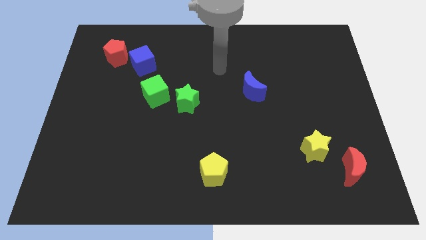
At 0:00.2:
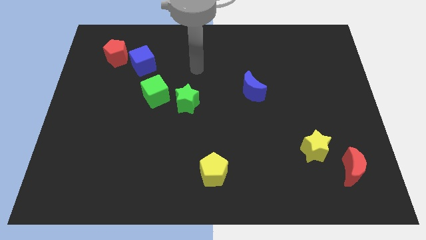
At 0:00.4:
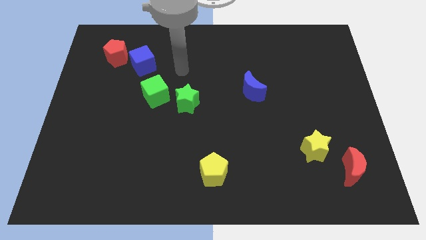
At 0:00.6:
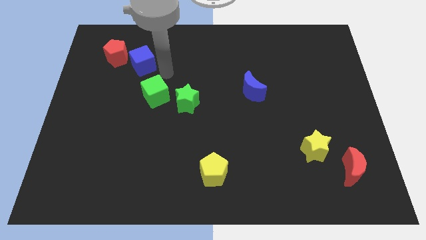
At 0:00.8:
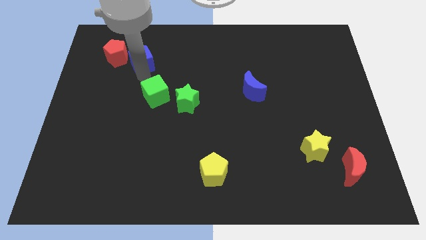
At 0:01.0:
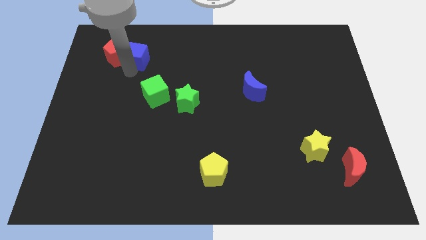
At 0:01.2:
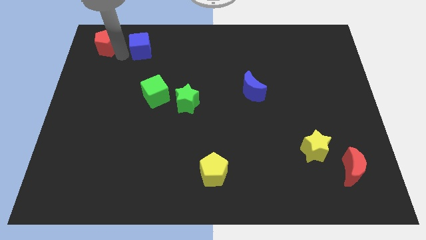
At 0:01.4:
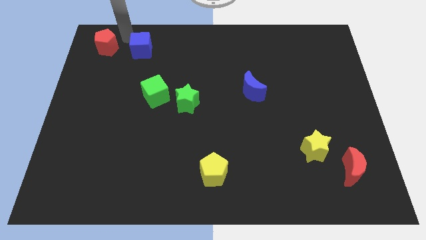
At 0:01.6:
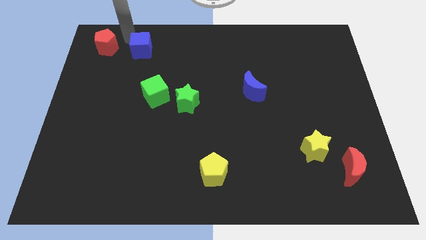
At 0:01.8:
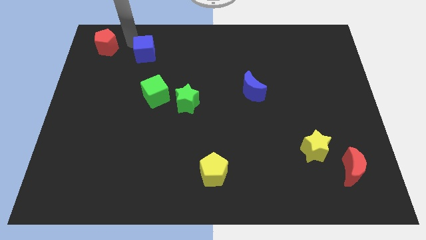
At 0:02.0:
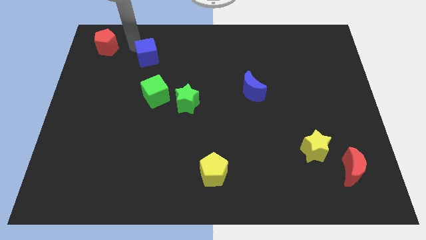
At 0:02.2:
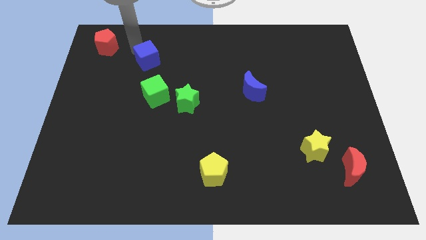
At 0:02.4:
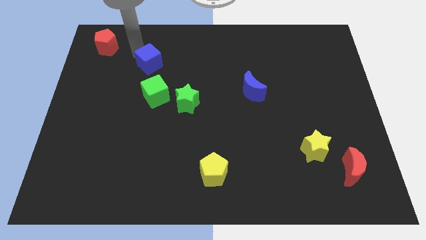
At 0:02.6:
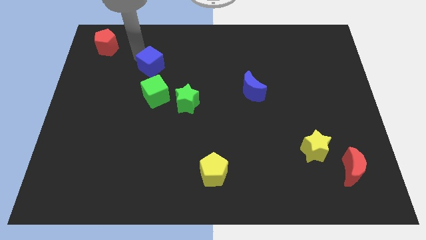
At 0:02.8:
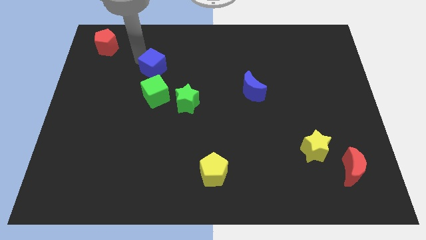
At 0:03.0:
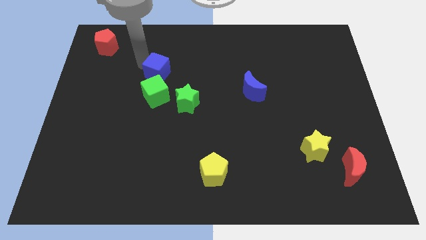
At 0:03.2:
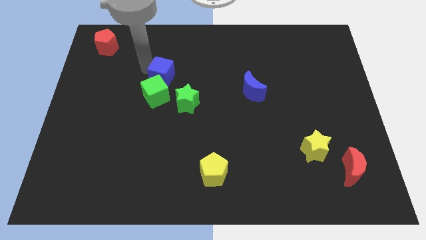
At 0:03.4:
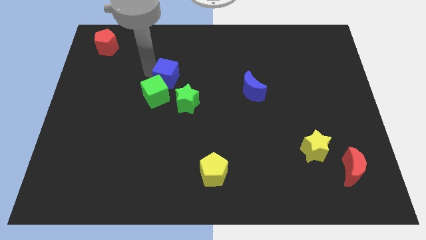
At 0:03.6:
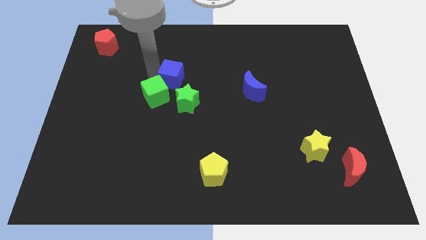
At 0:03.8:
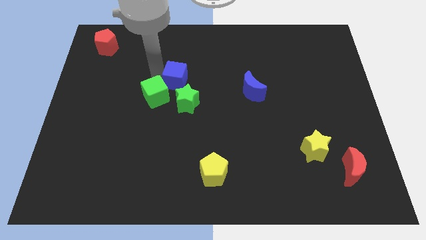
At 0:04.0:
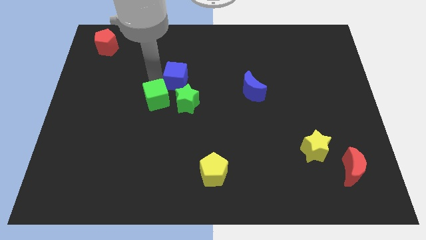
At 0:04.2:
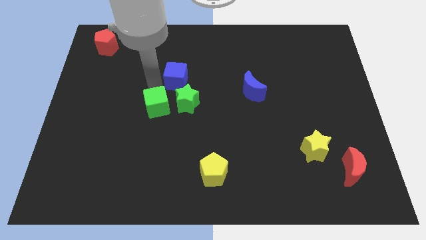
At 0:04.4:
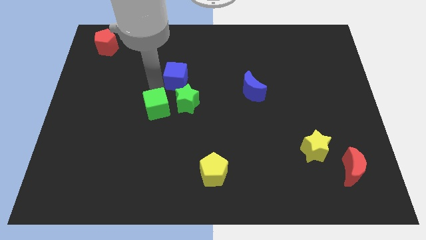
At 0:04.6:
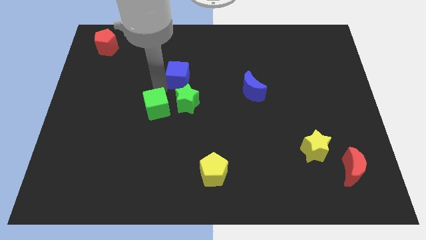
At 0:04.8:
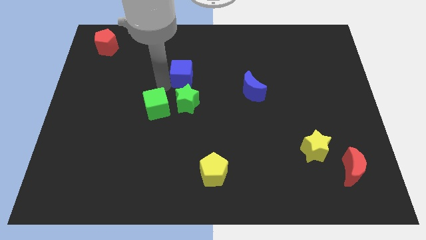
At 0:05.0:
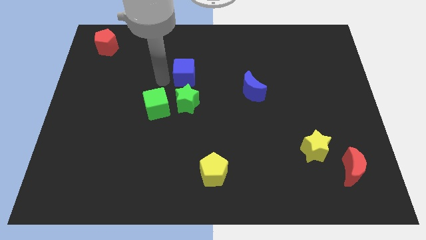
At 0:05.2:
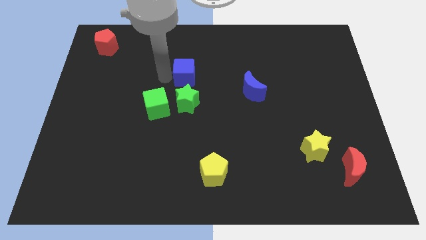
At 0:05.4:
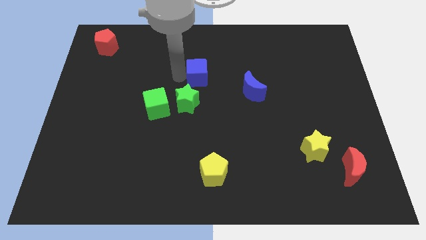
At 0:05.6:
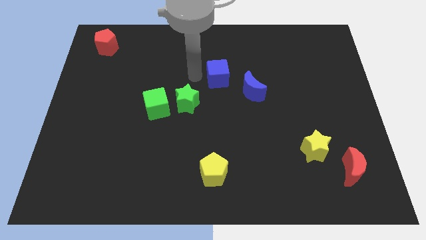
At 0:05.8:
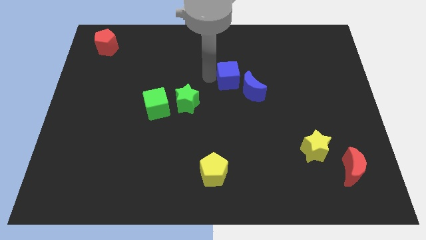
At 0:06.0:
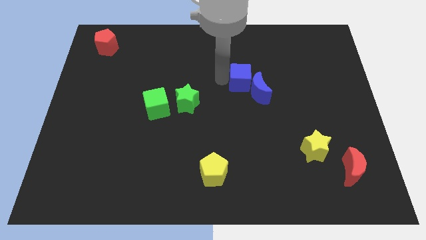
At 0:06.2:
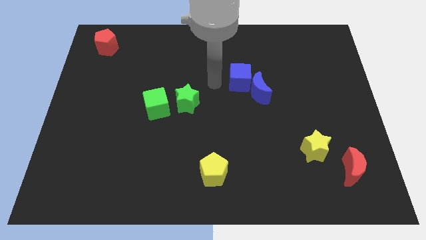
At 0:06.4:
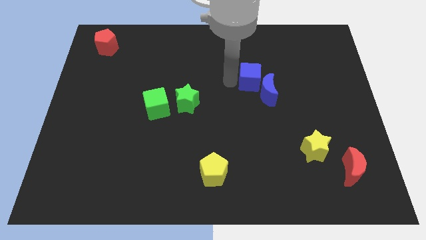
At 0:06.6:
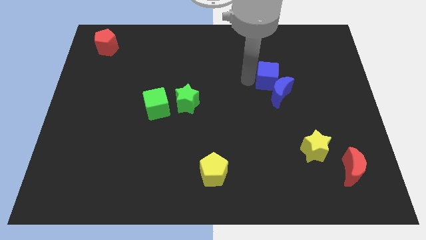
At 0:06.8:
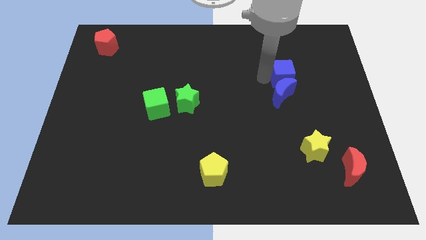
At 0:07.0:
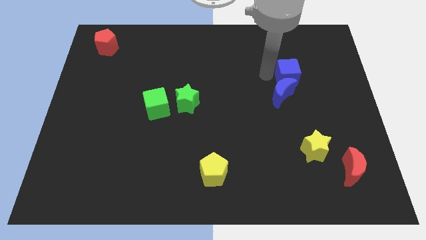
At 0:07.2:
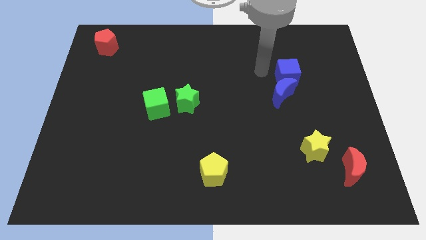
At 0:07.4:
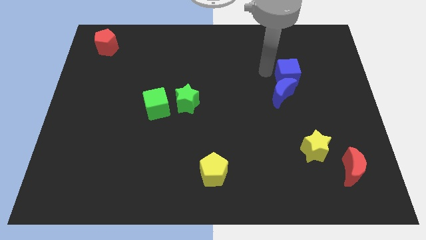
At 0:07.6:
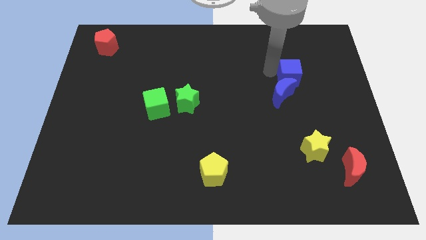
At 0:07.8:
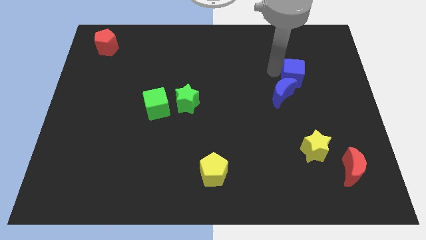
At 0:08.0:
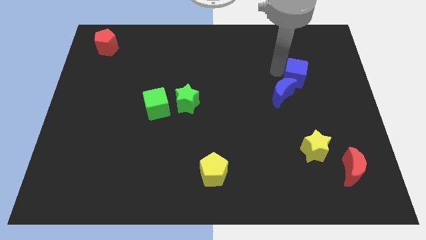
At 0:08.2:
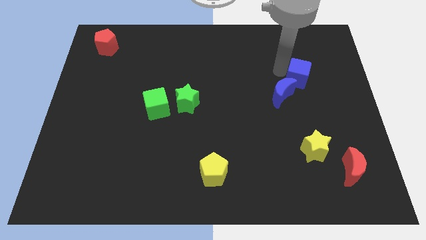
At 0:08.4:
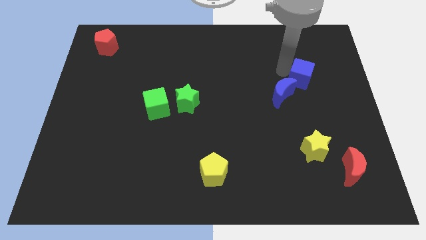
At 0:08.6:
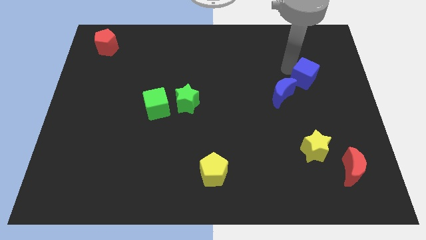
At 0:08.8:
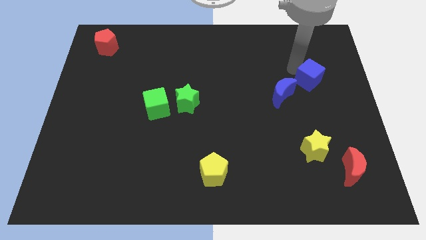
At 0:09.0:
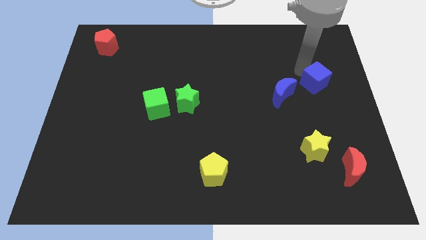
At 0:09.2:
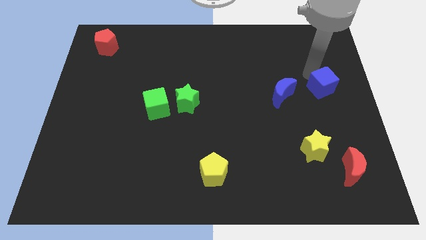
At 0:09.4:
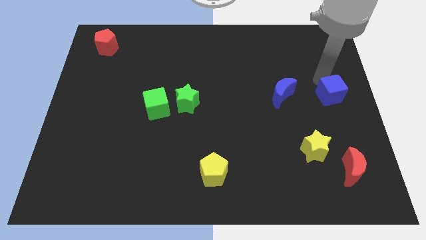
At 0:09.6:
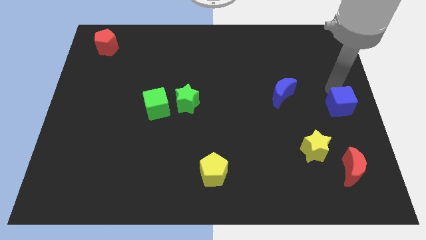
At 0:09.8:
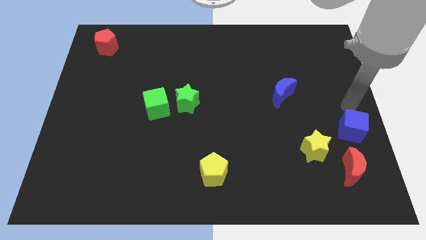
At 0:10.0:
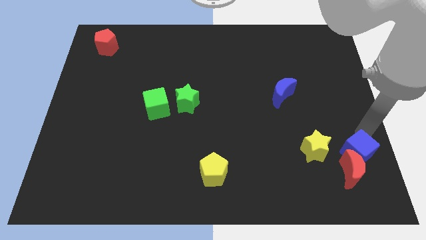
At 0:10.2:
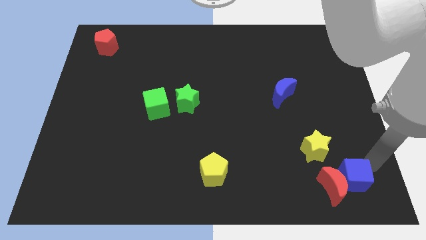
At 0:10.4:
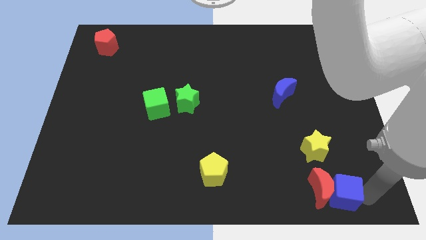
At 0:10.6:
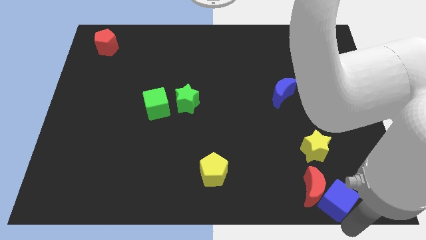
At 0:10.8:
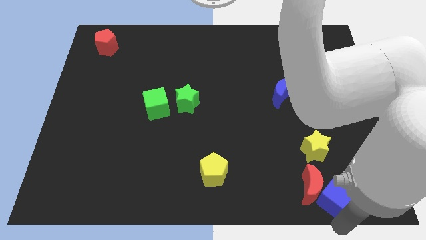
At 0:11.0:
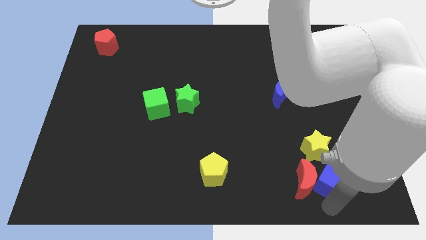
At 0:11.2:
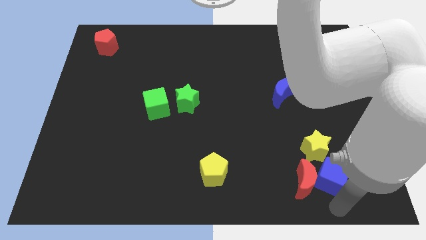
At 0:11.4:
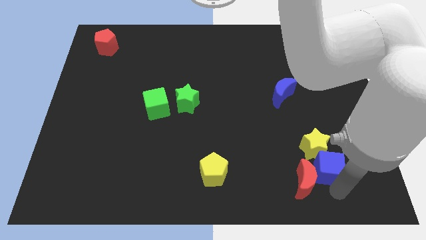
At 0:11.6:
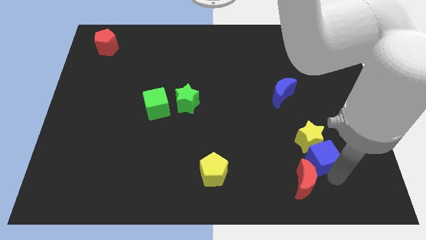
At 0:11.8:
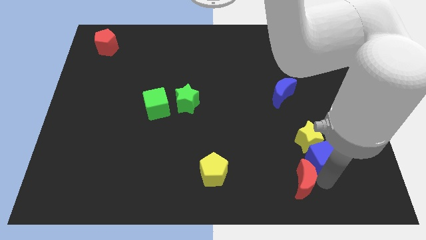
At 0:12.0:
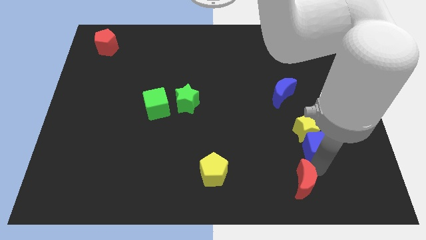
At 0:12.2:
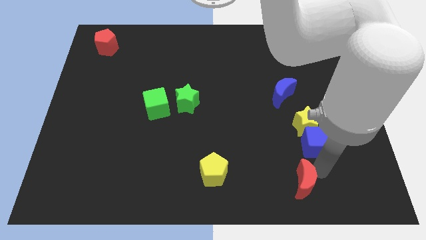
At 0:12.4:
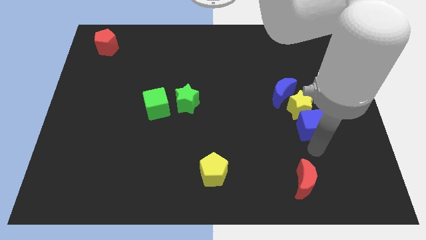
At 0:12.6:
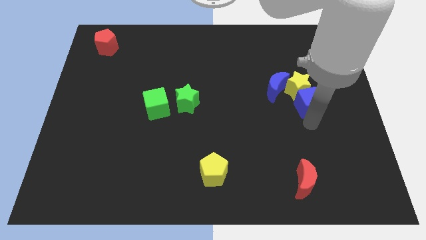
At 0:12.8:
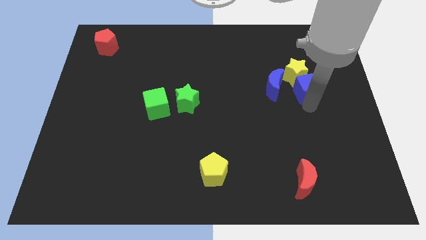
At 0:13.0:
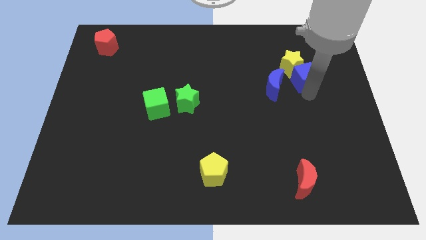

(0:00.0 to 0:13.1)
push the blue cube diagonally up and to the right of the blue moon

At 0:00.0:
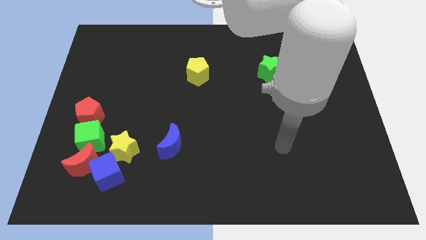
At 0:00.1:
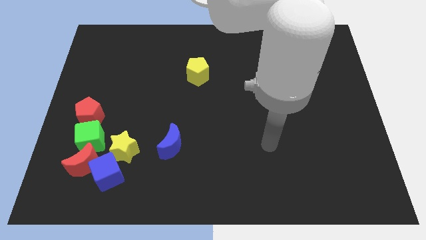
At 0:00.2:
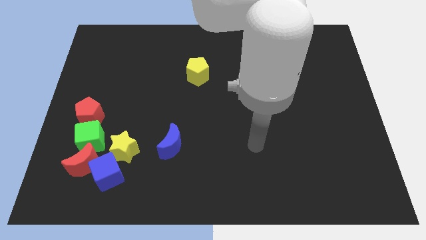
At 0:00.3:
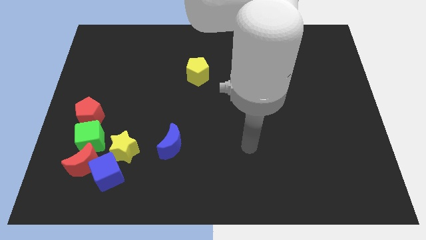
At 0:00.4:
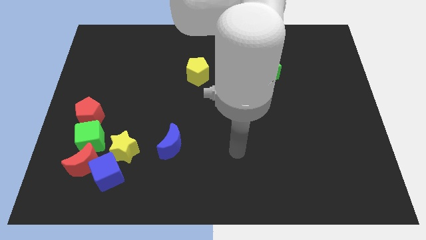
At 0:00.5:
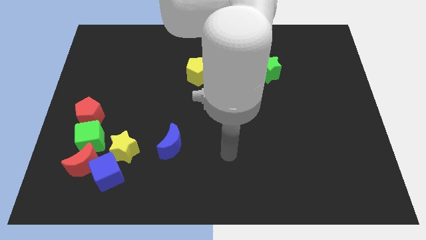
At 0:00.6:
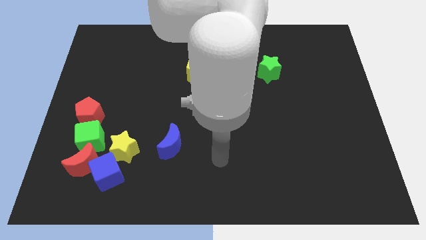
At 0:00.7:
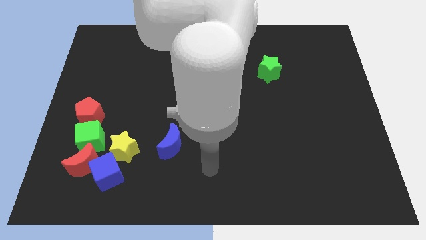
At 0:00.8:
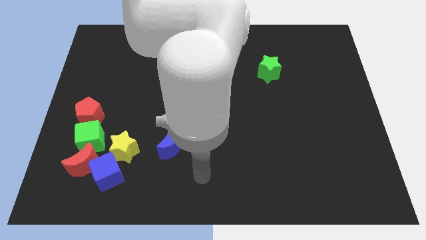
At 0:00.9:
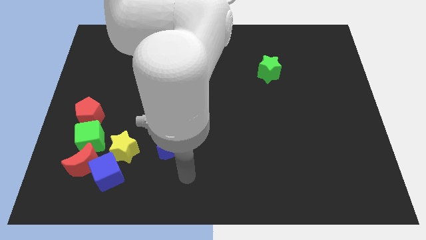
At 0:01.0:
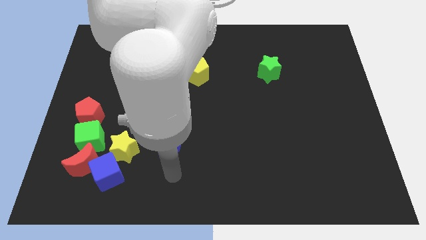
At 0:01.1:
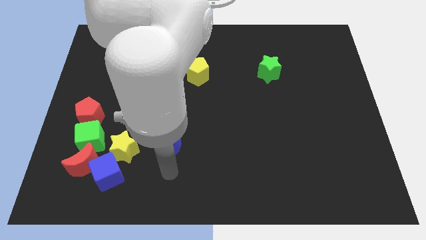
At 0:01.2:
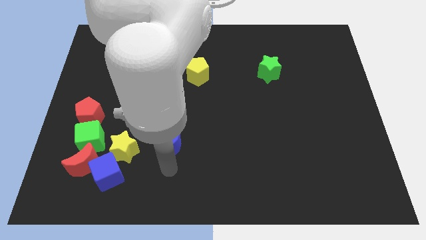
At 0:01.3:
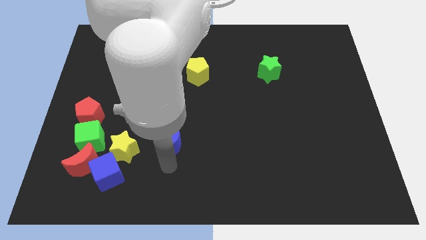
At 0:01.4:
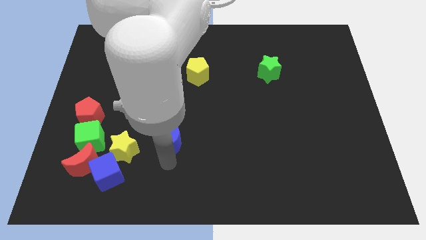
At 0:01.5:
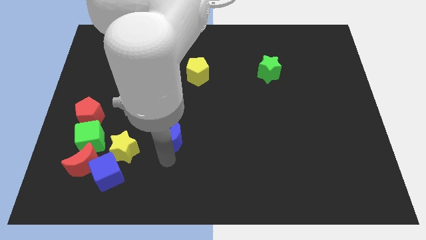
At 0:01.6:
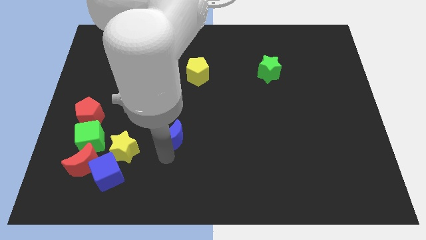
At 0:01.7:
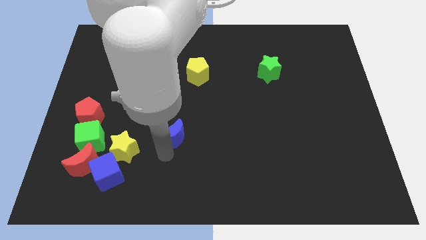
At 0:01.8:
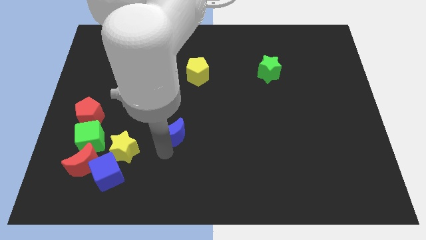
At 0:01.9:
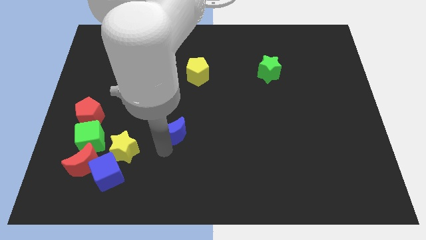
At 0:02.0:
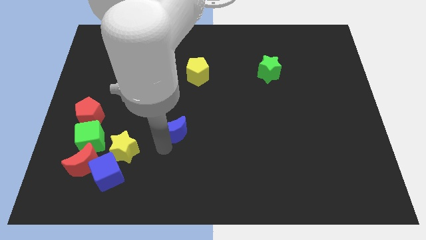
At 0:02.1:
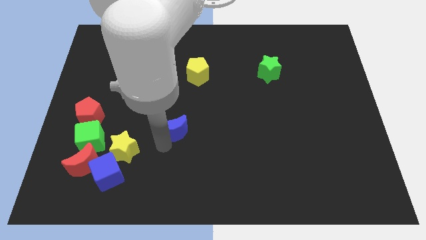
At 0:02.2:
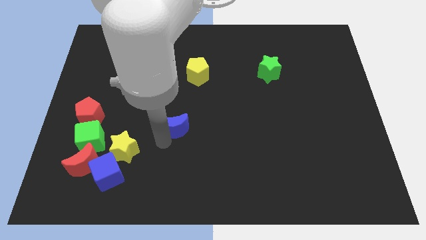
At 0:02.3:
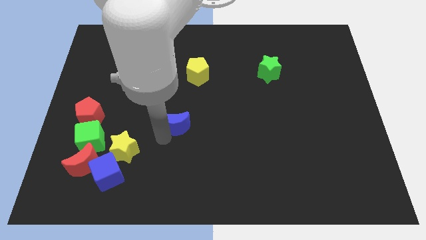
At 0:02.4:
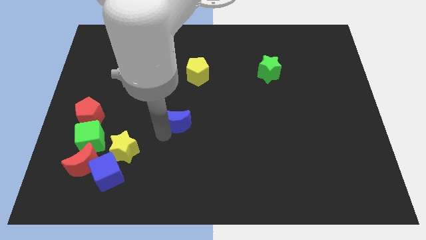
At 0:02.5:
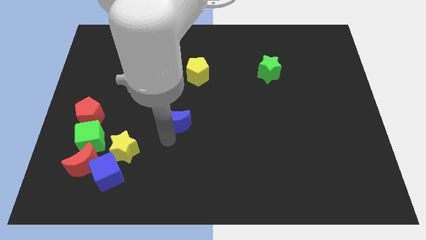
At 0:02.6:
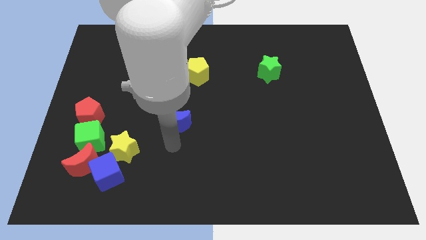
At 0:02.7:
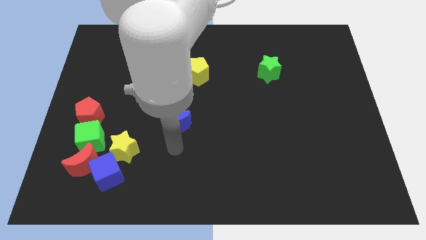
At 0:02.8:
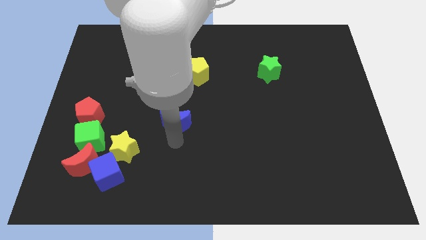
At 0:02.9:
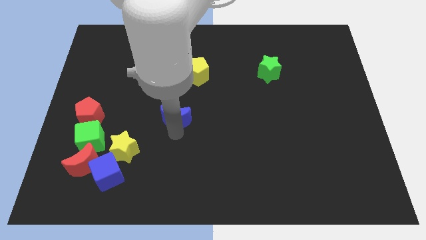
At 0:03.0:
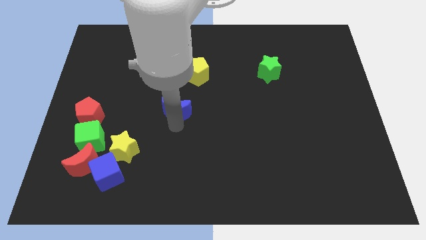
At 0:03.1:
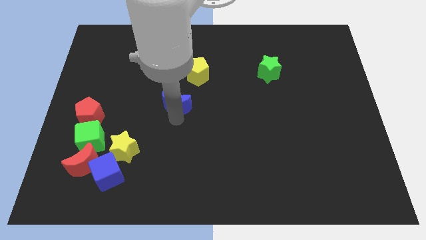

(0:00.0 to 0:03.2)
slide the blue moon to the bottom left of the yellow pentagon
